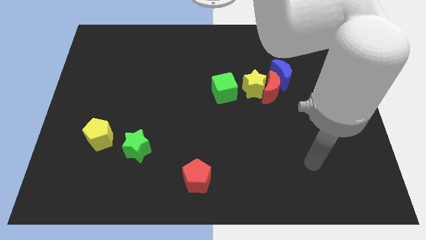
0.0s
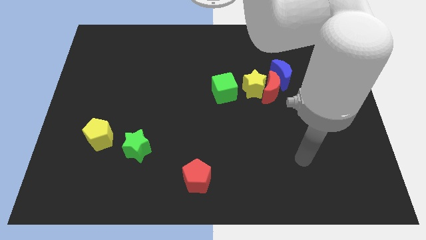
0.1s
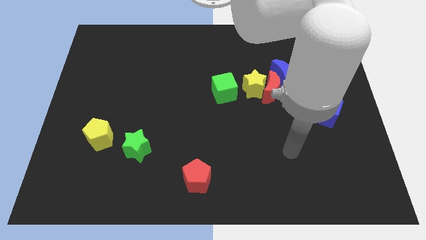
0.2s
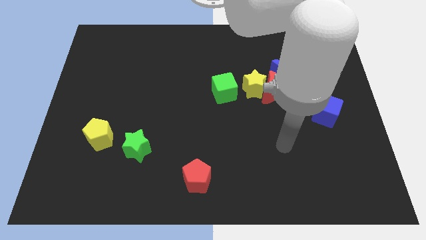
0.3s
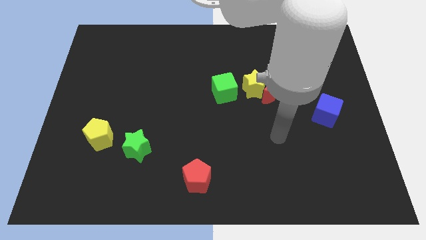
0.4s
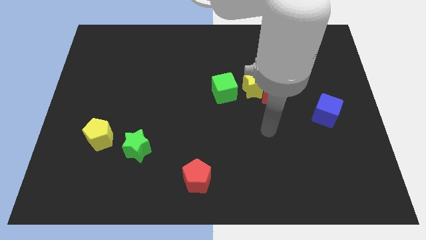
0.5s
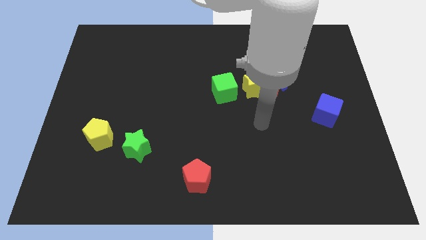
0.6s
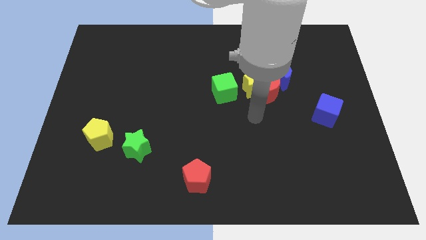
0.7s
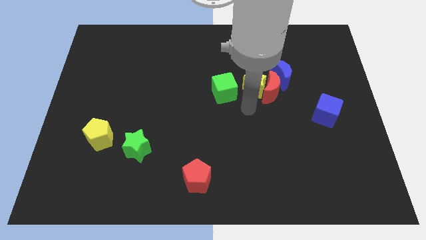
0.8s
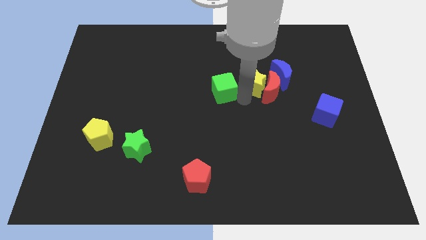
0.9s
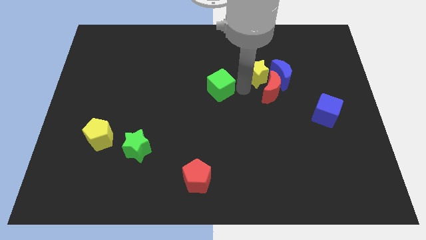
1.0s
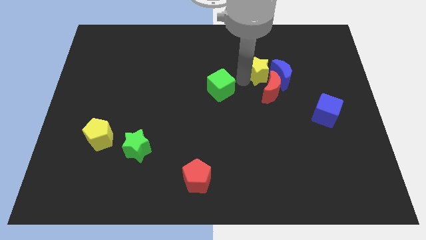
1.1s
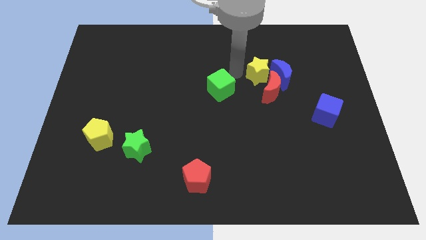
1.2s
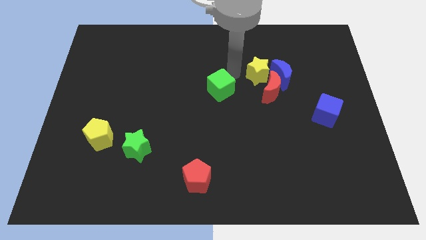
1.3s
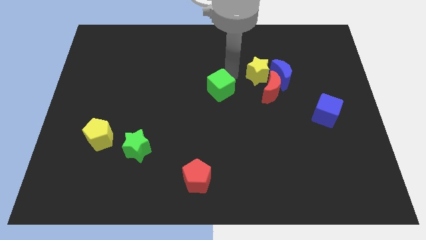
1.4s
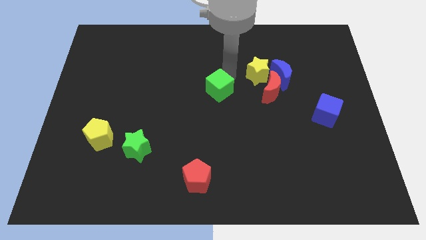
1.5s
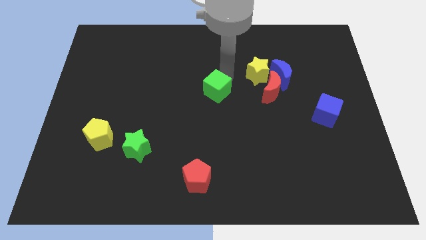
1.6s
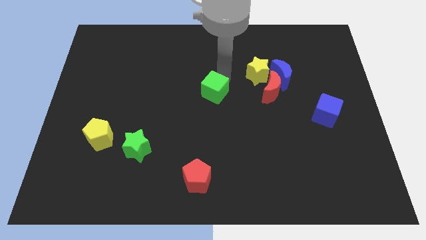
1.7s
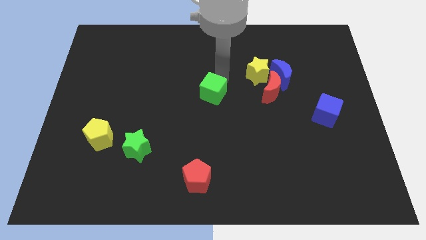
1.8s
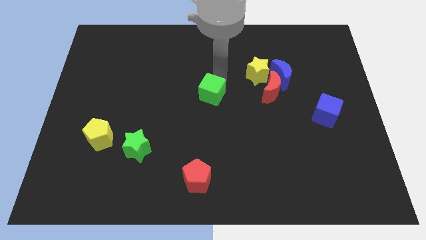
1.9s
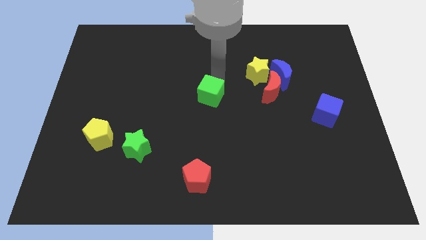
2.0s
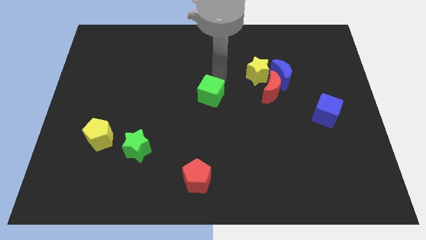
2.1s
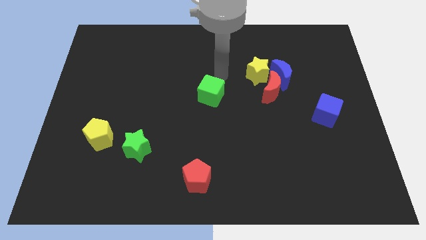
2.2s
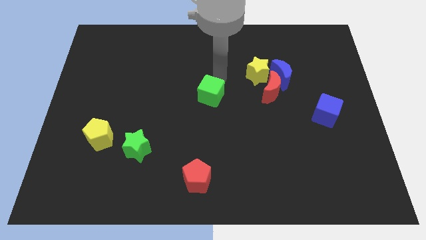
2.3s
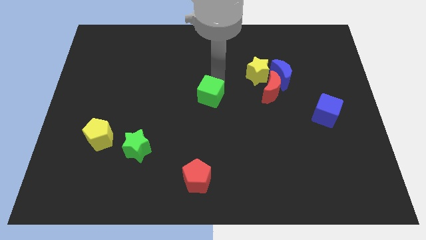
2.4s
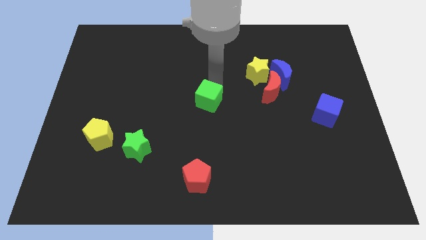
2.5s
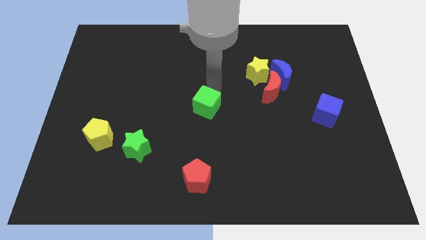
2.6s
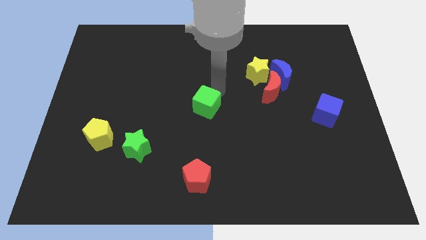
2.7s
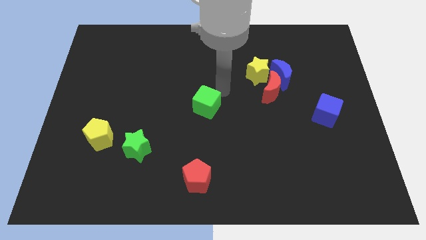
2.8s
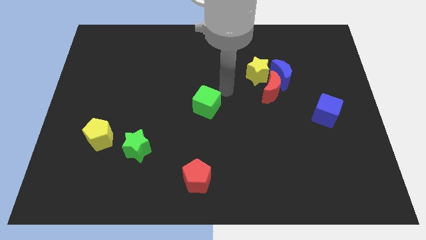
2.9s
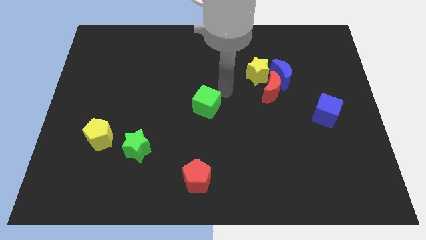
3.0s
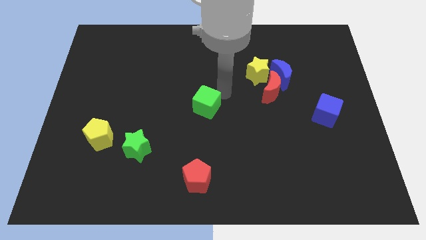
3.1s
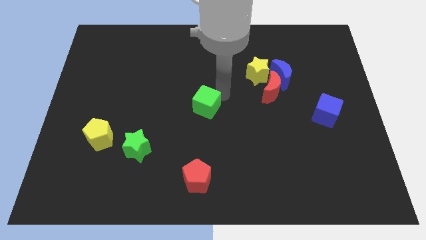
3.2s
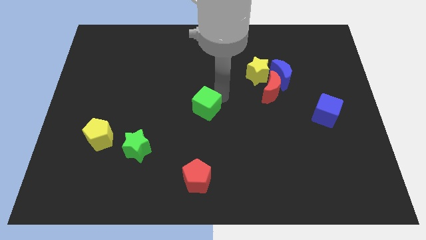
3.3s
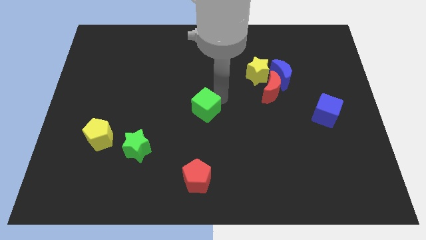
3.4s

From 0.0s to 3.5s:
slide the green cube downwards and then left a little bit

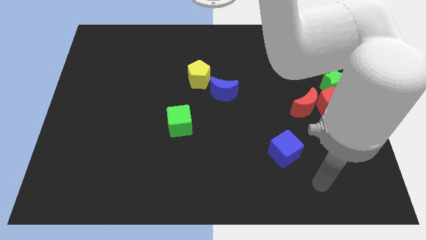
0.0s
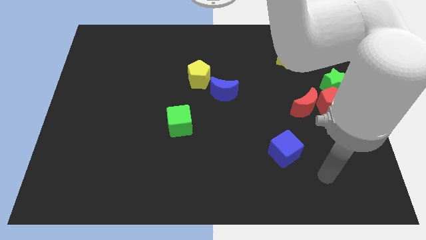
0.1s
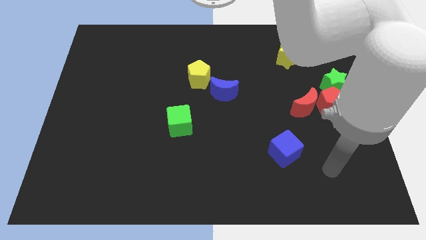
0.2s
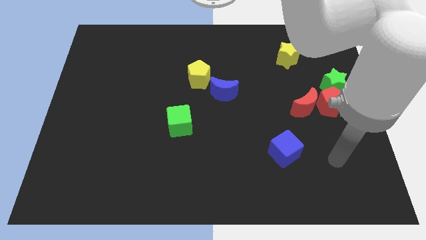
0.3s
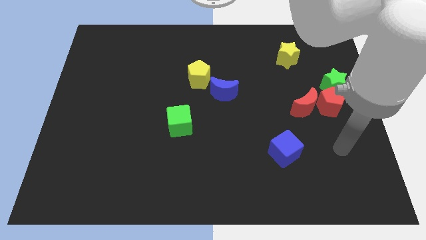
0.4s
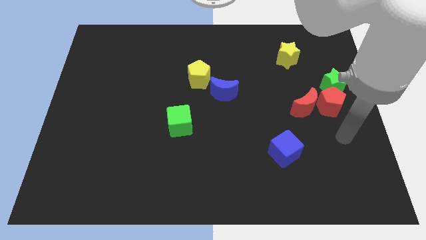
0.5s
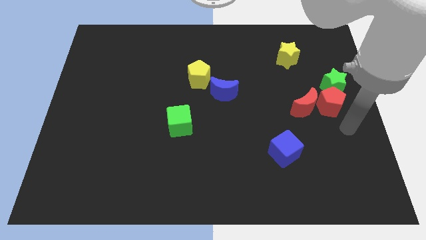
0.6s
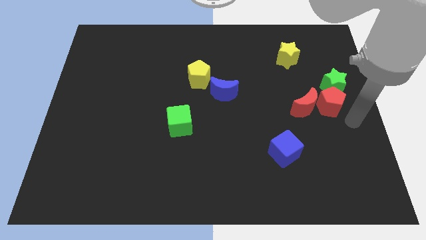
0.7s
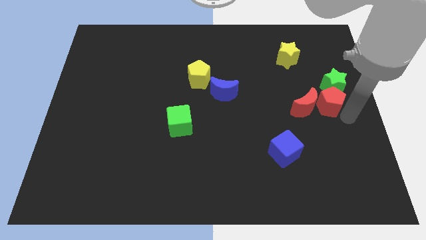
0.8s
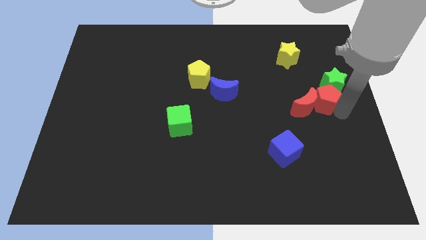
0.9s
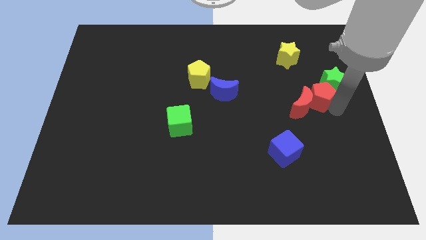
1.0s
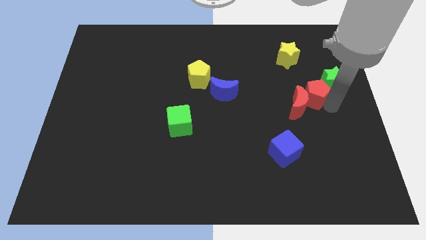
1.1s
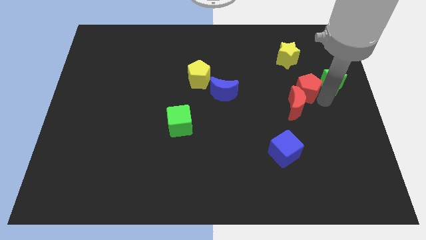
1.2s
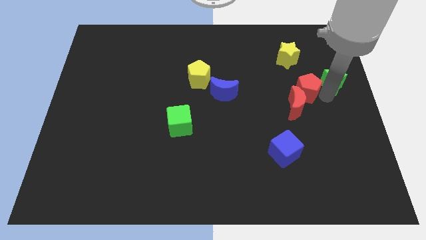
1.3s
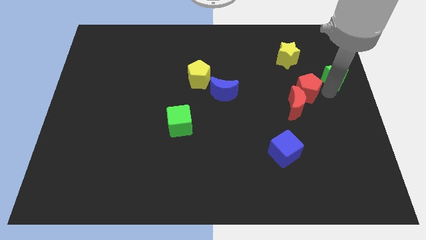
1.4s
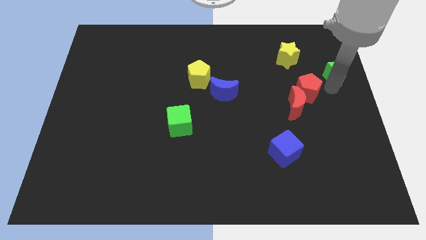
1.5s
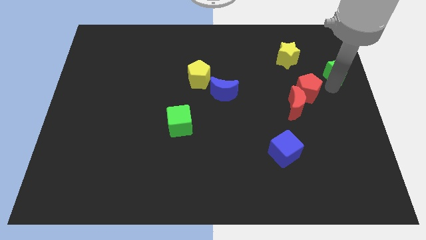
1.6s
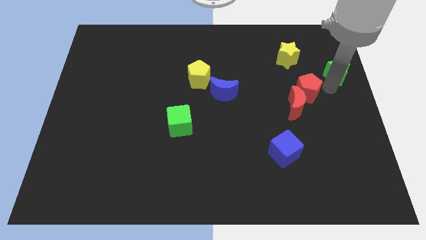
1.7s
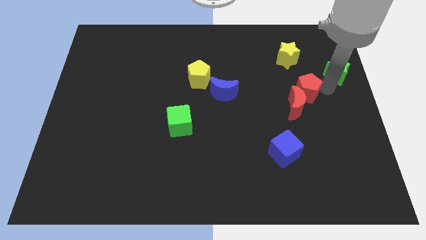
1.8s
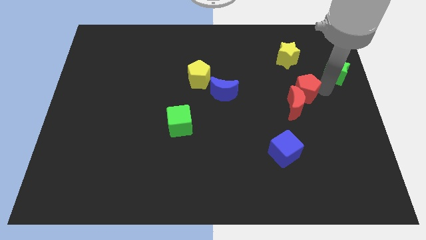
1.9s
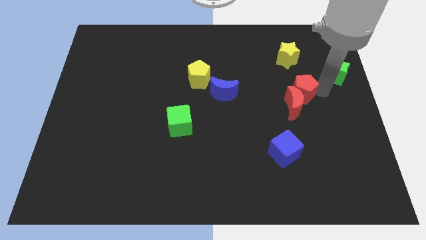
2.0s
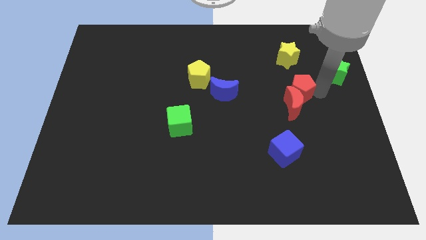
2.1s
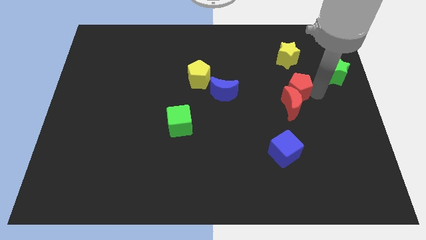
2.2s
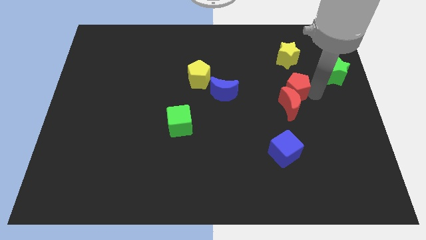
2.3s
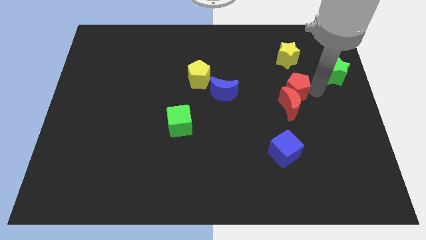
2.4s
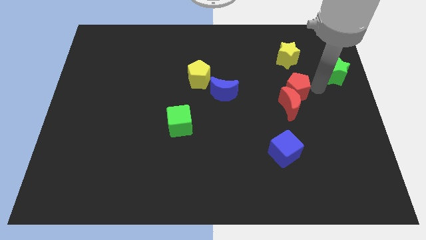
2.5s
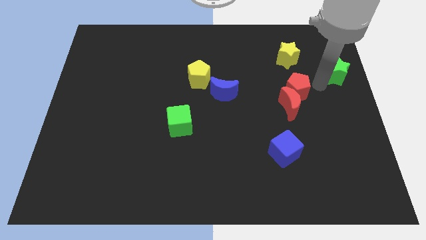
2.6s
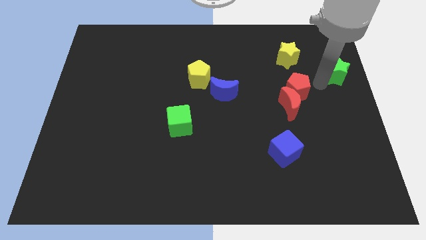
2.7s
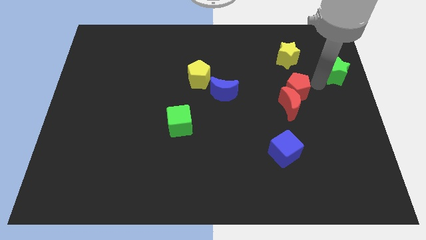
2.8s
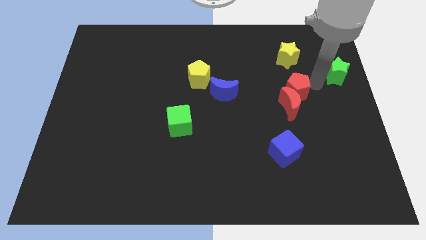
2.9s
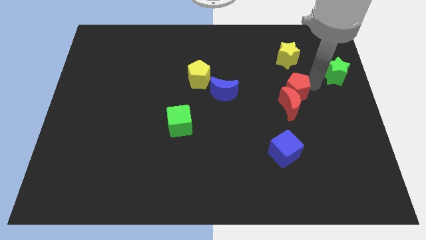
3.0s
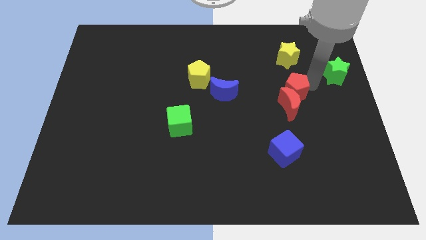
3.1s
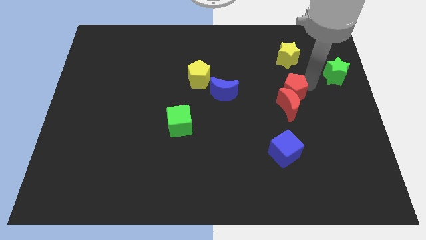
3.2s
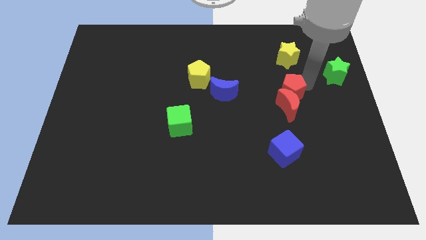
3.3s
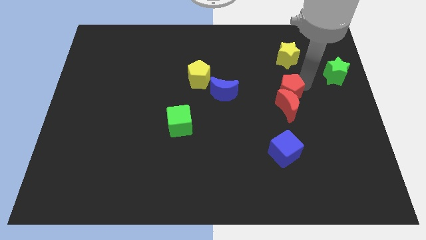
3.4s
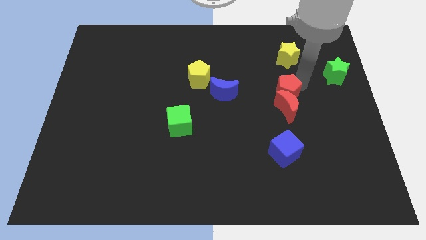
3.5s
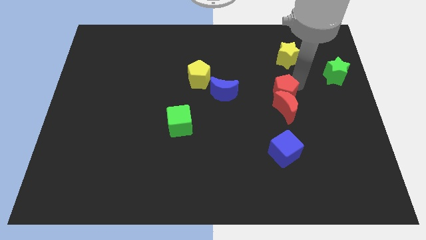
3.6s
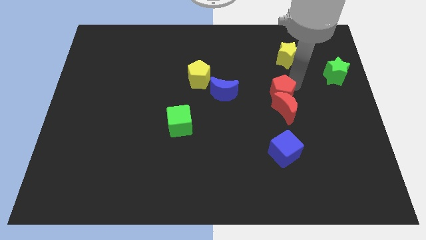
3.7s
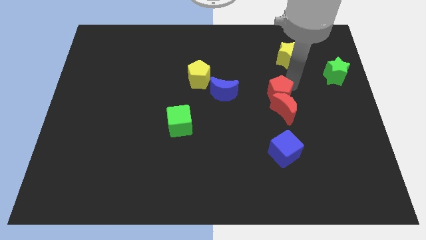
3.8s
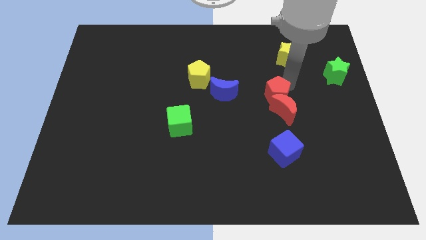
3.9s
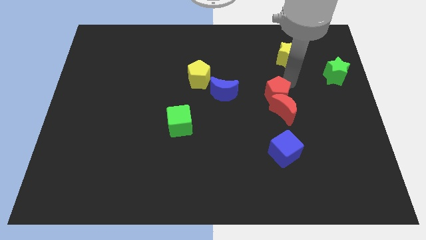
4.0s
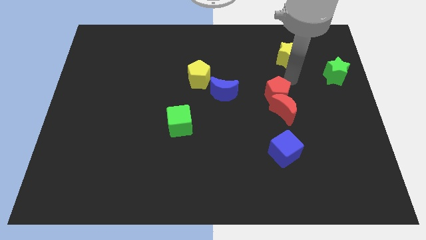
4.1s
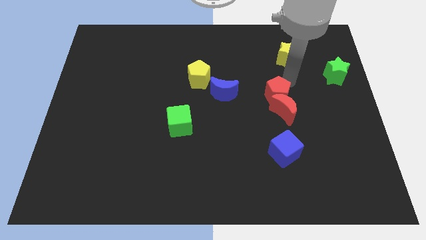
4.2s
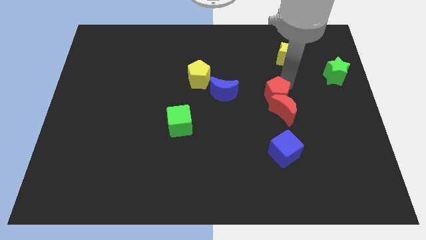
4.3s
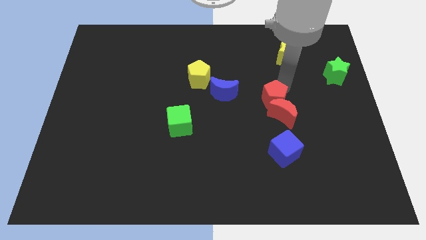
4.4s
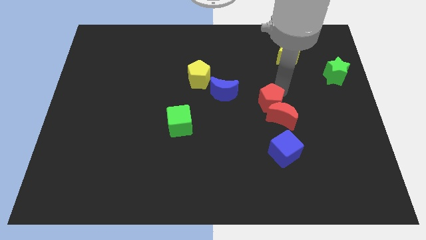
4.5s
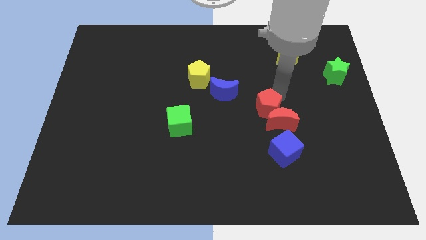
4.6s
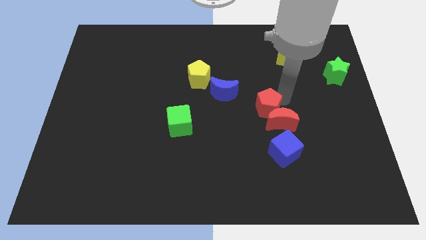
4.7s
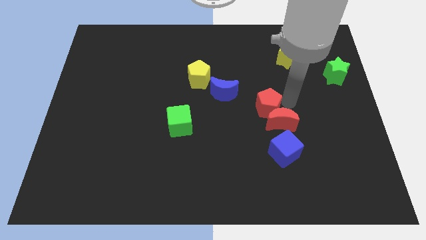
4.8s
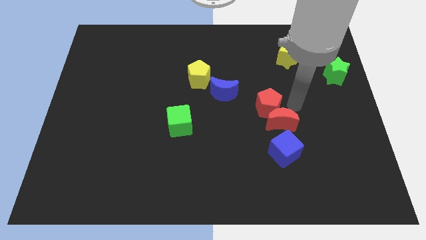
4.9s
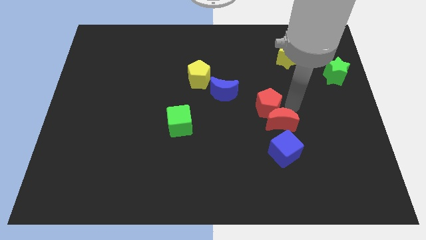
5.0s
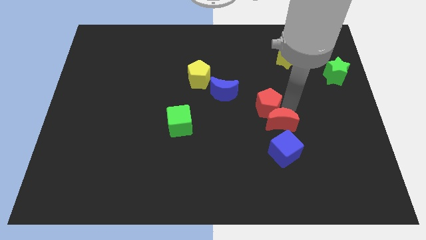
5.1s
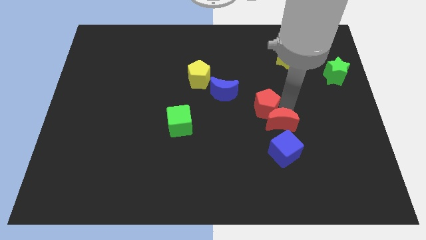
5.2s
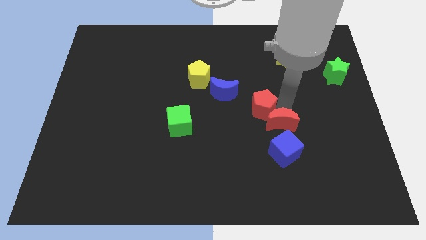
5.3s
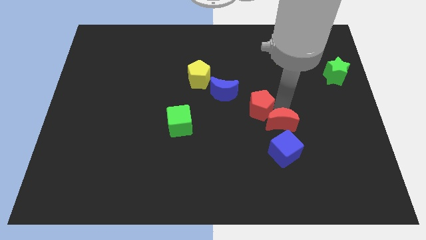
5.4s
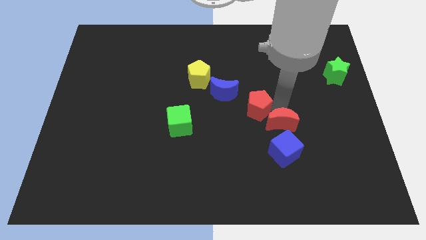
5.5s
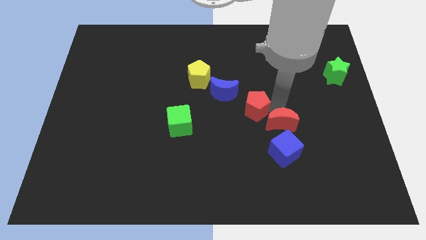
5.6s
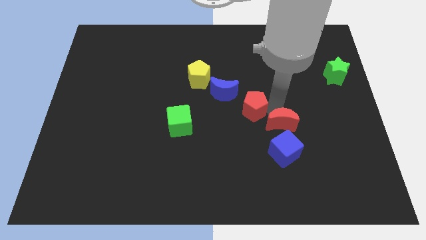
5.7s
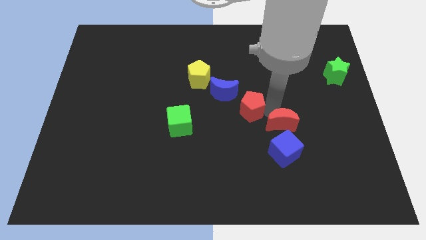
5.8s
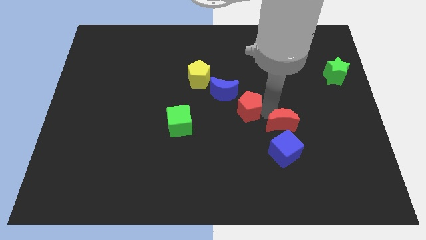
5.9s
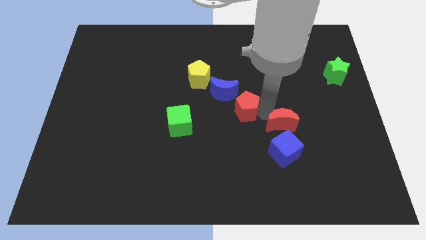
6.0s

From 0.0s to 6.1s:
slide the red pentagon left
